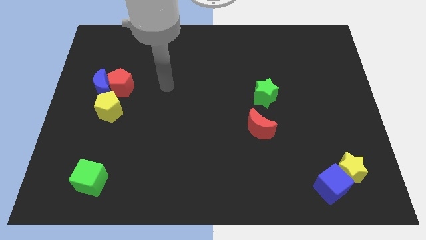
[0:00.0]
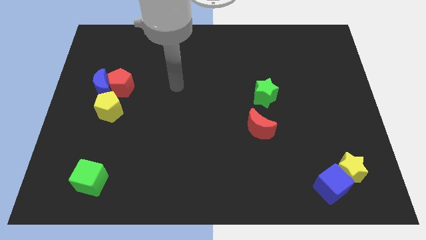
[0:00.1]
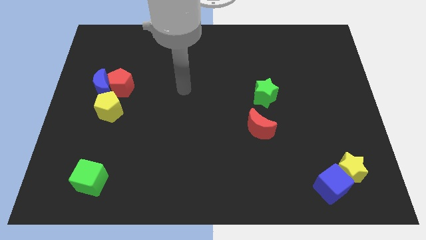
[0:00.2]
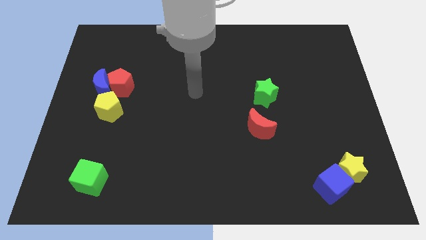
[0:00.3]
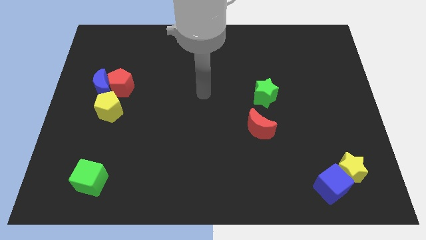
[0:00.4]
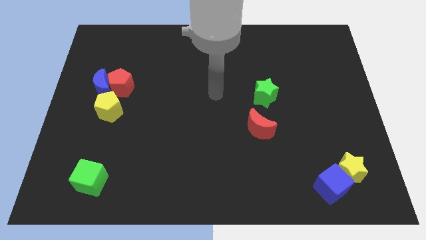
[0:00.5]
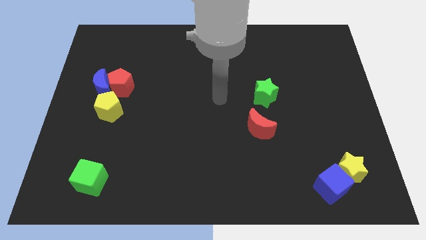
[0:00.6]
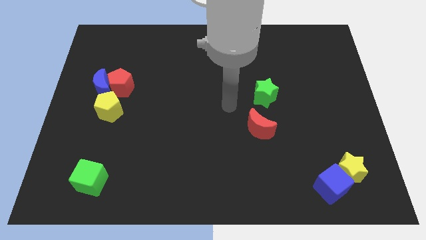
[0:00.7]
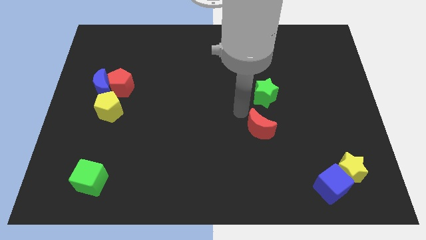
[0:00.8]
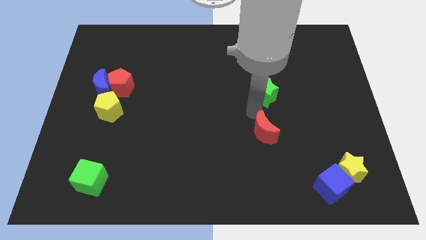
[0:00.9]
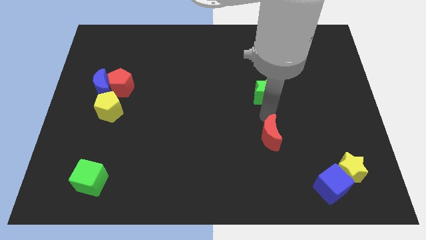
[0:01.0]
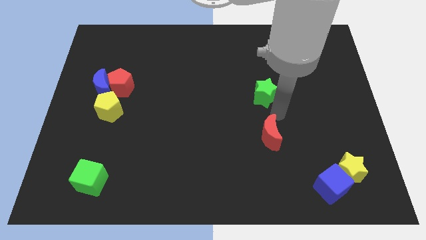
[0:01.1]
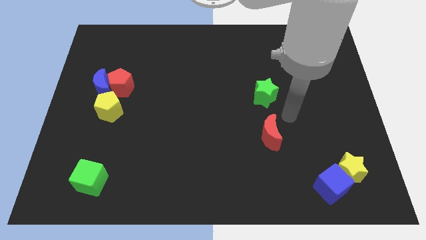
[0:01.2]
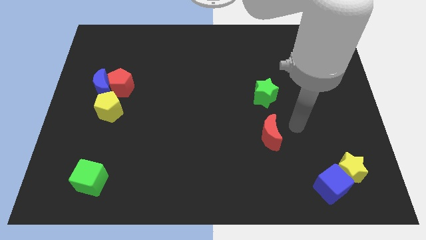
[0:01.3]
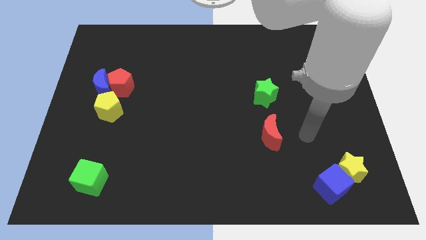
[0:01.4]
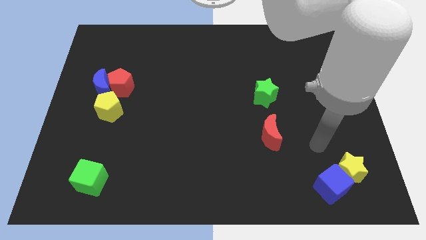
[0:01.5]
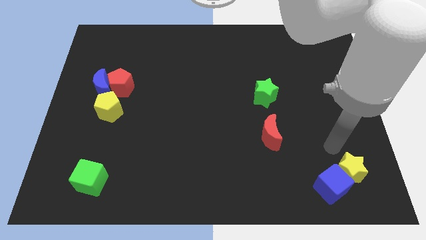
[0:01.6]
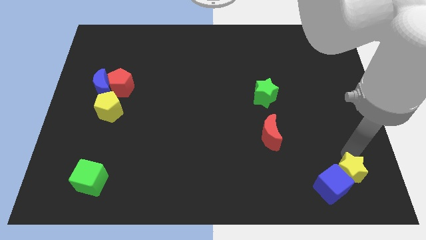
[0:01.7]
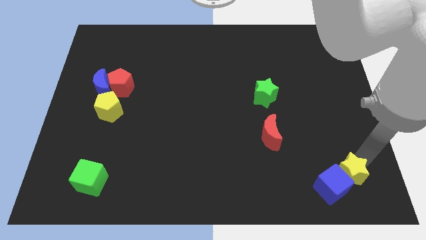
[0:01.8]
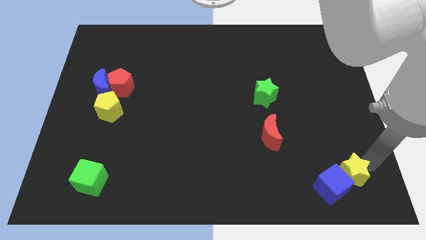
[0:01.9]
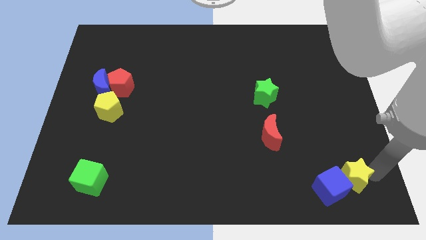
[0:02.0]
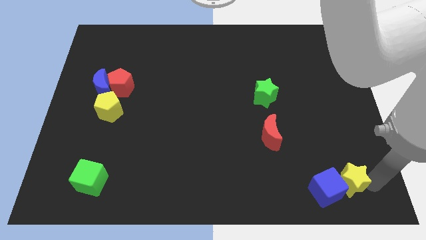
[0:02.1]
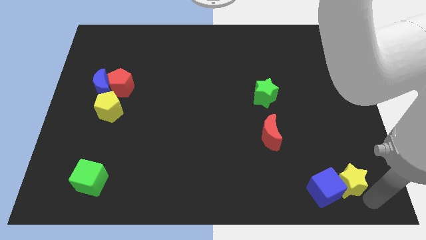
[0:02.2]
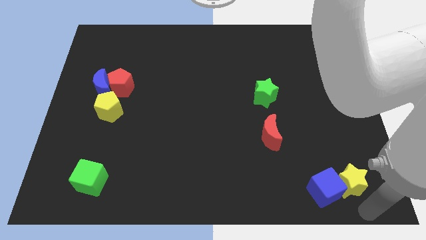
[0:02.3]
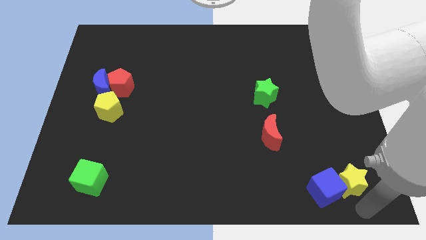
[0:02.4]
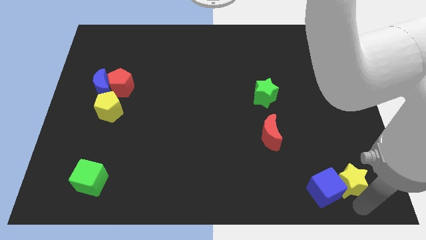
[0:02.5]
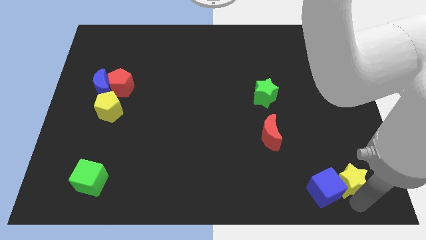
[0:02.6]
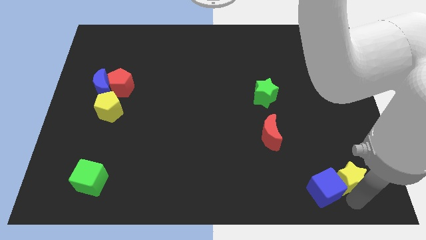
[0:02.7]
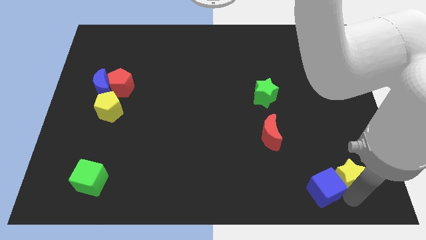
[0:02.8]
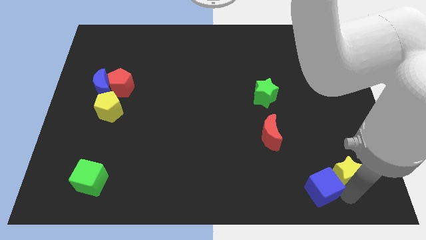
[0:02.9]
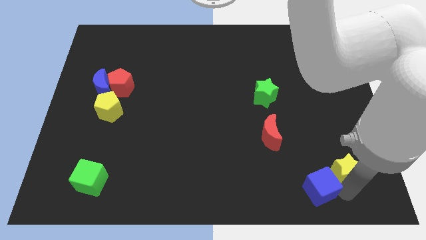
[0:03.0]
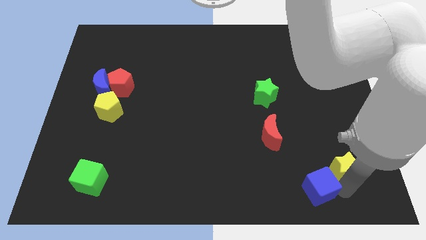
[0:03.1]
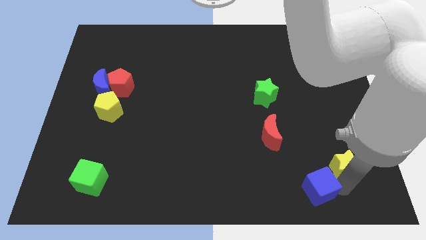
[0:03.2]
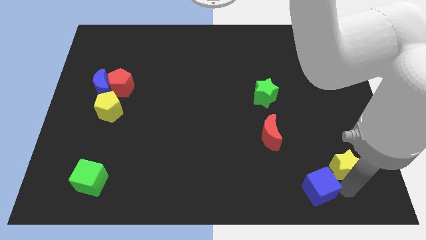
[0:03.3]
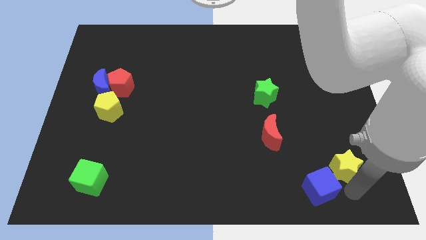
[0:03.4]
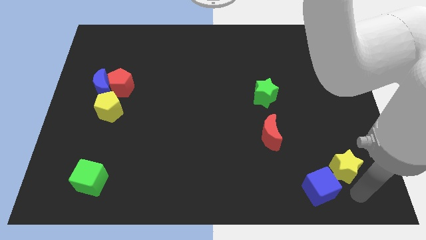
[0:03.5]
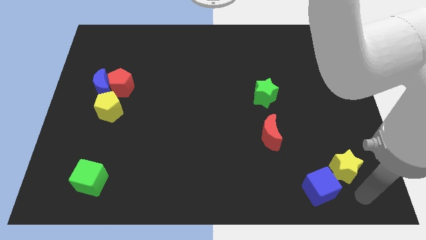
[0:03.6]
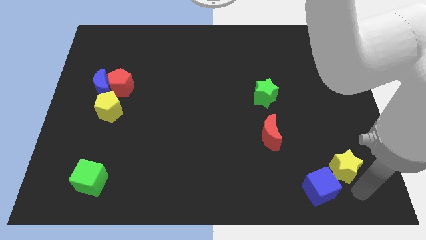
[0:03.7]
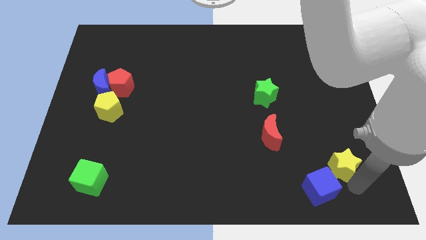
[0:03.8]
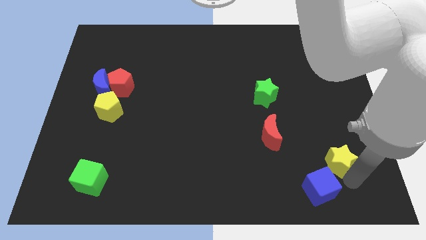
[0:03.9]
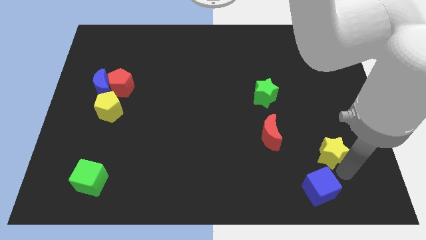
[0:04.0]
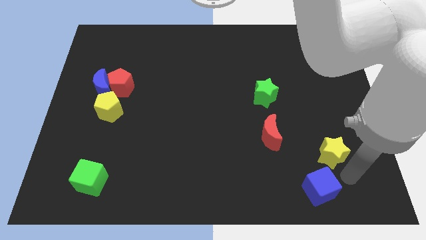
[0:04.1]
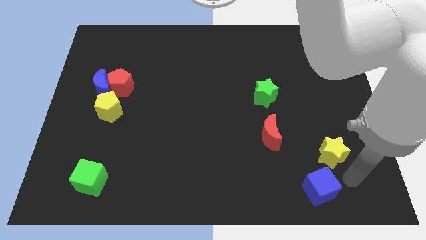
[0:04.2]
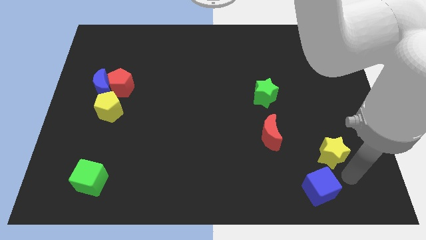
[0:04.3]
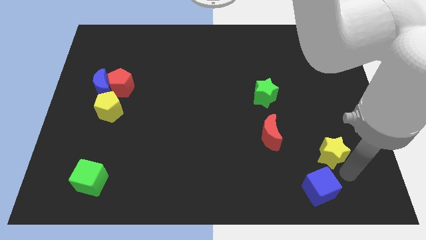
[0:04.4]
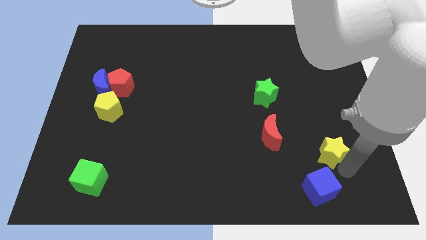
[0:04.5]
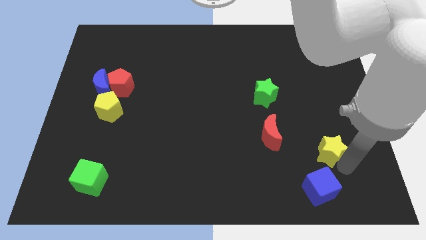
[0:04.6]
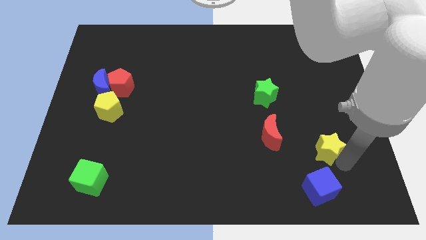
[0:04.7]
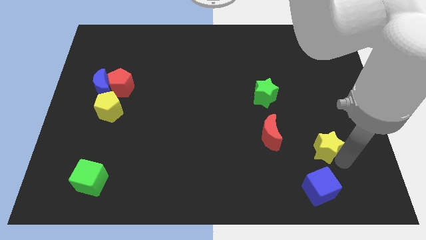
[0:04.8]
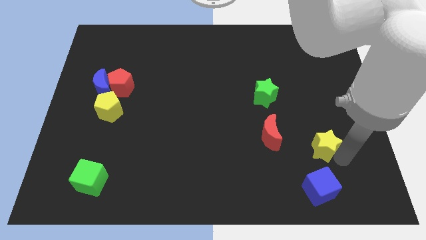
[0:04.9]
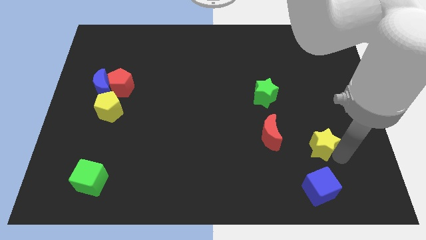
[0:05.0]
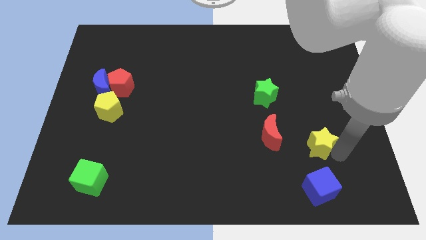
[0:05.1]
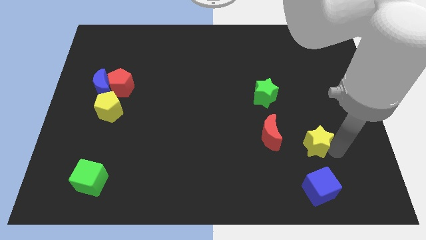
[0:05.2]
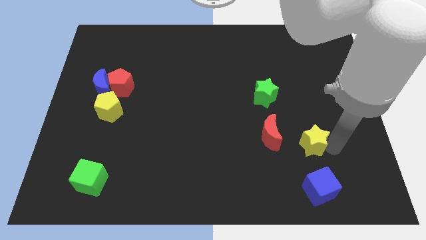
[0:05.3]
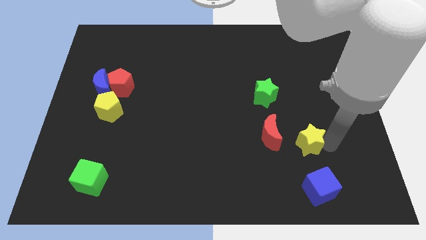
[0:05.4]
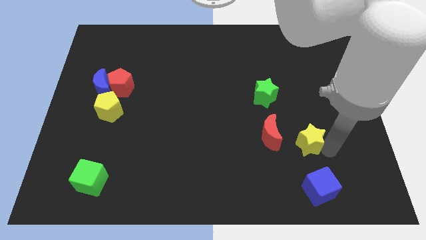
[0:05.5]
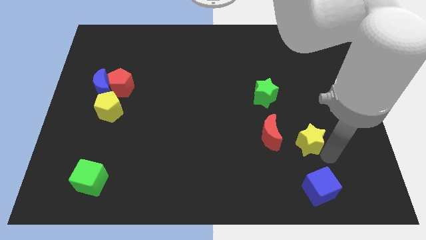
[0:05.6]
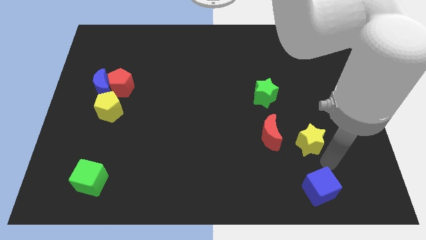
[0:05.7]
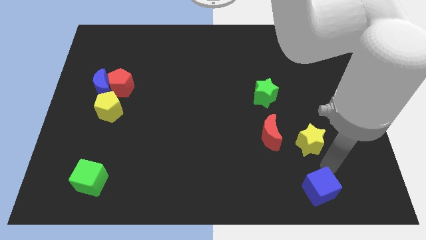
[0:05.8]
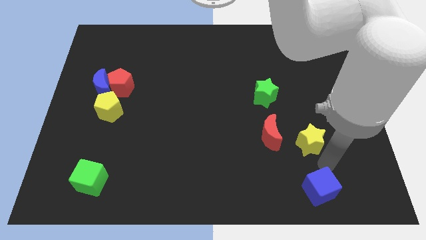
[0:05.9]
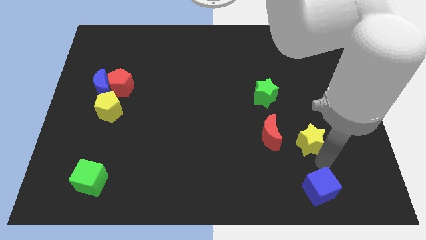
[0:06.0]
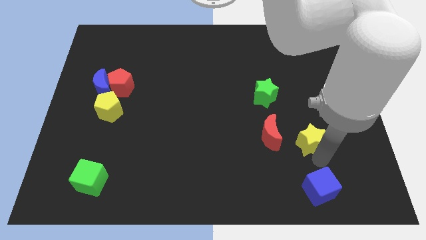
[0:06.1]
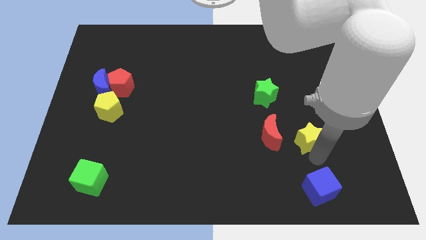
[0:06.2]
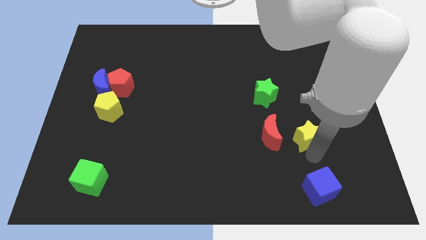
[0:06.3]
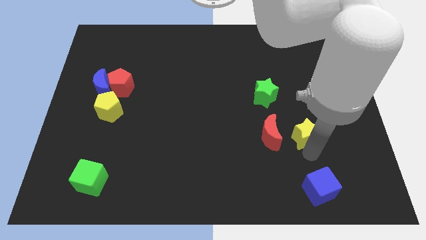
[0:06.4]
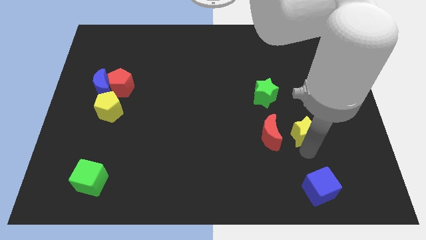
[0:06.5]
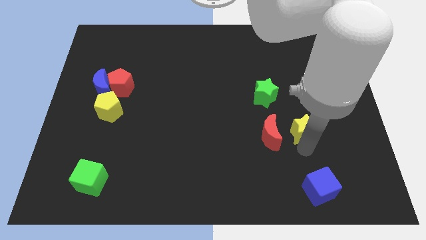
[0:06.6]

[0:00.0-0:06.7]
put the yellow star to the top right of the red moon
